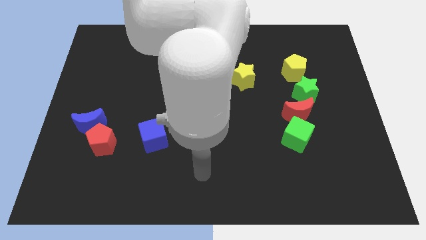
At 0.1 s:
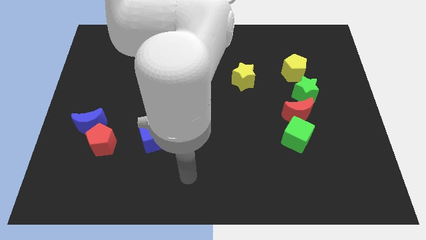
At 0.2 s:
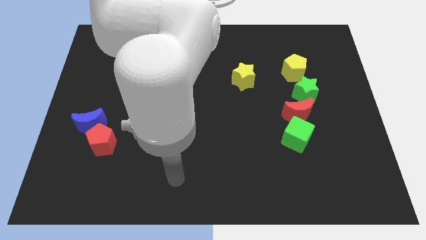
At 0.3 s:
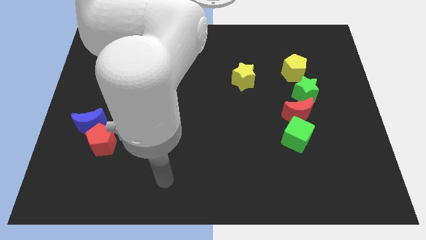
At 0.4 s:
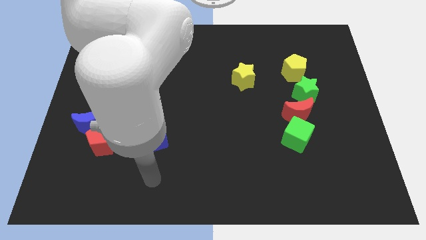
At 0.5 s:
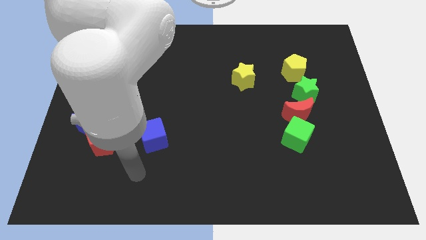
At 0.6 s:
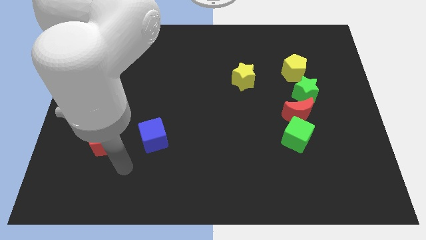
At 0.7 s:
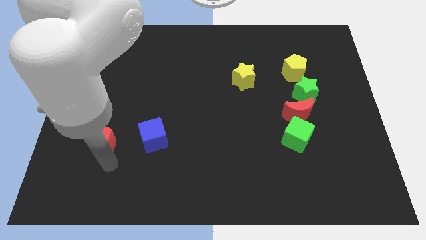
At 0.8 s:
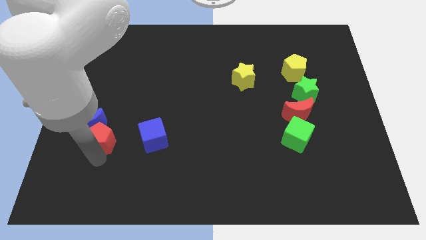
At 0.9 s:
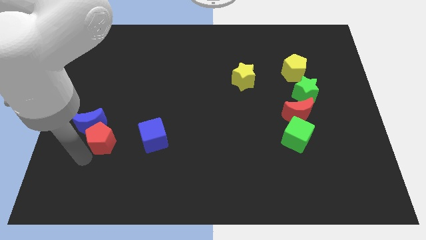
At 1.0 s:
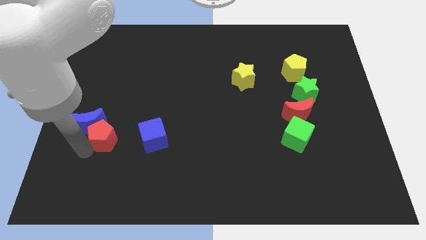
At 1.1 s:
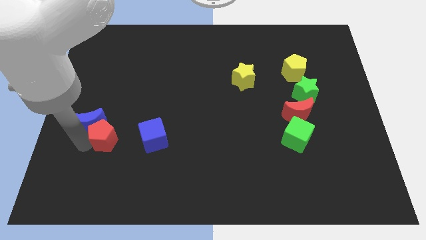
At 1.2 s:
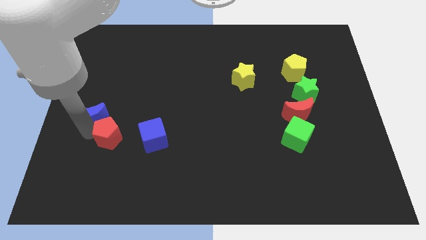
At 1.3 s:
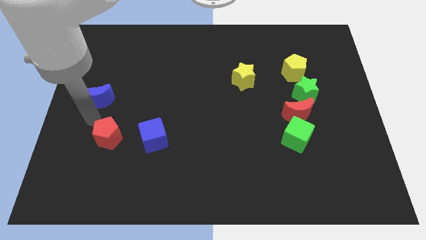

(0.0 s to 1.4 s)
pull the red pentagon apart from the blue moon

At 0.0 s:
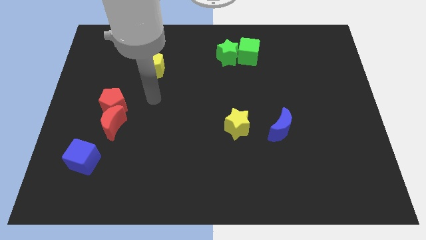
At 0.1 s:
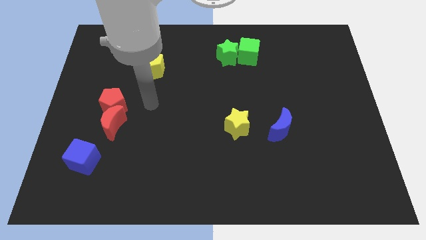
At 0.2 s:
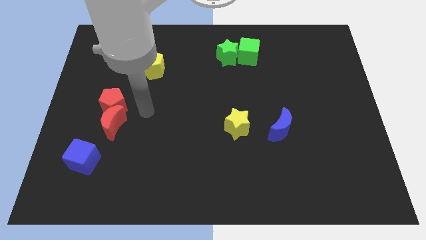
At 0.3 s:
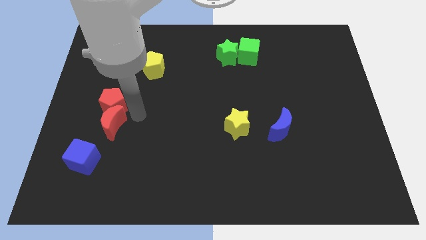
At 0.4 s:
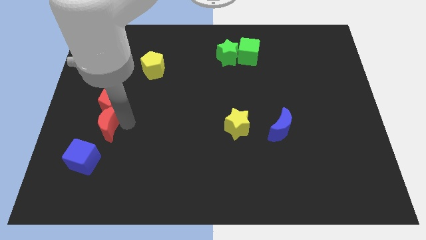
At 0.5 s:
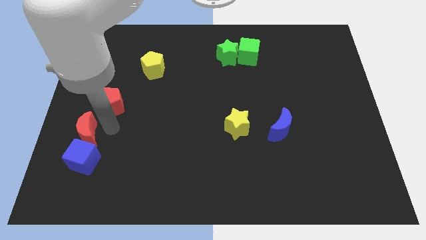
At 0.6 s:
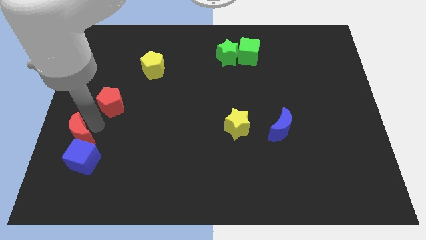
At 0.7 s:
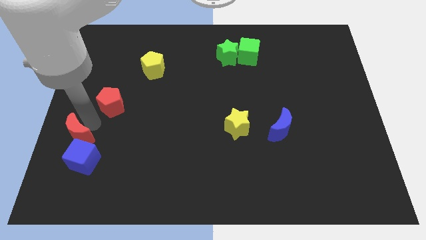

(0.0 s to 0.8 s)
move the red pentagon away from the red moon

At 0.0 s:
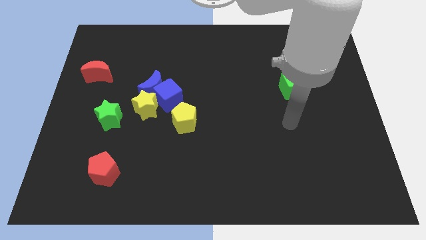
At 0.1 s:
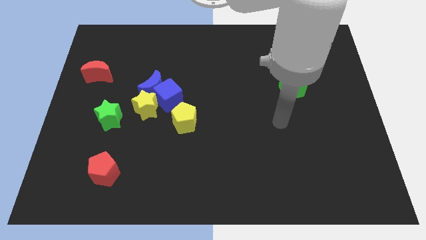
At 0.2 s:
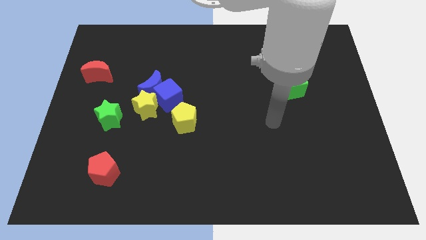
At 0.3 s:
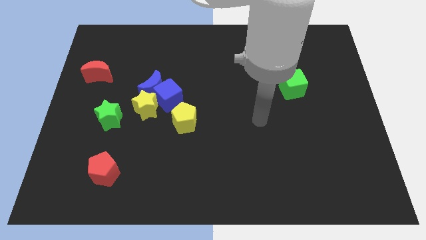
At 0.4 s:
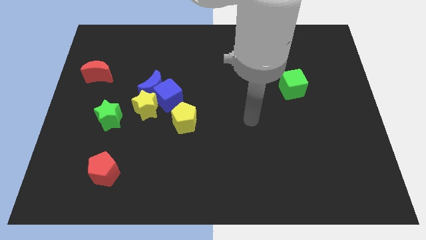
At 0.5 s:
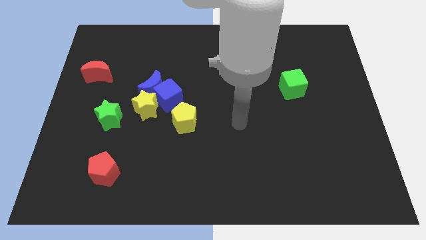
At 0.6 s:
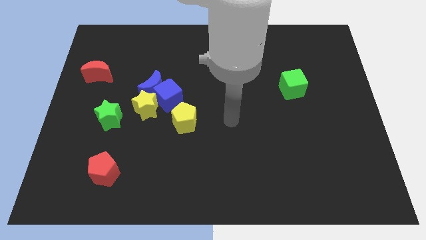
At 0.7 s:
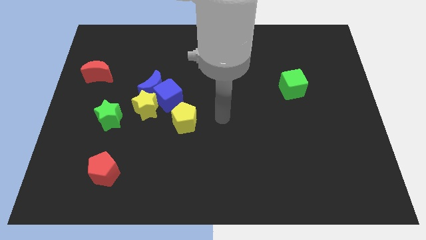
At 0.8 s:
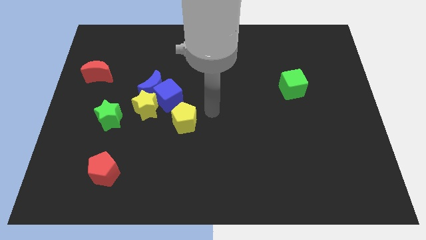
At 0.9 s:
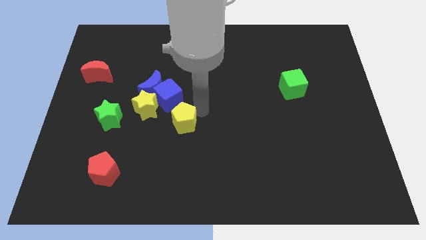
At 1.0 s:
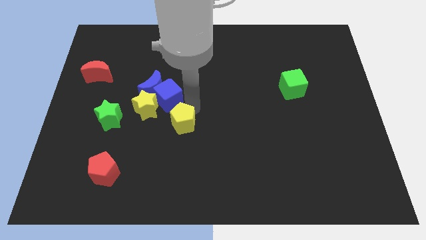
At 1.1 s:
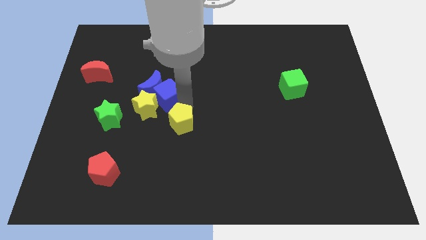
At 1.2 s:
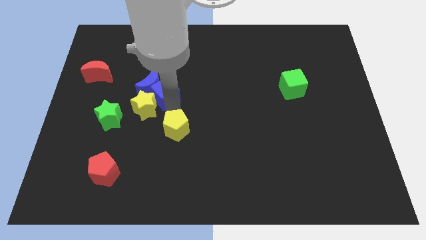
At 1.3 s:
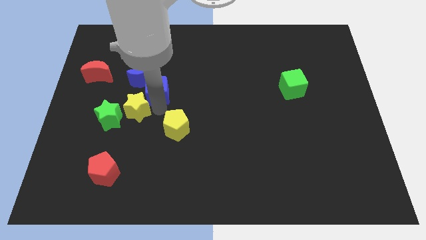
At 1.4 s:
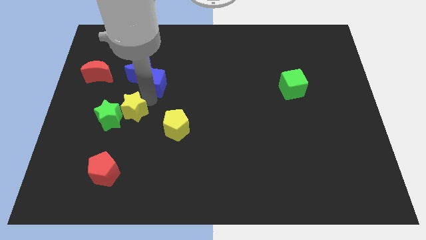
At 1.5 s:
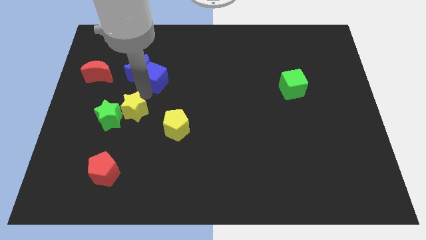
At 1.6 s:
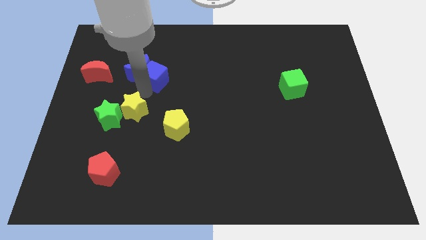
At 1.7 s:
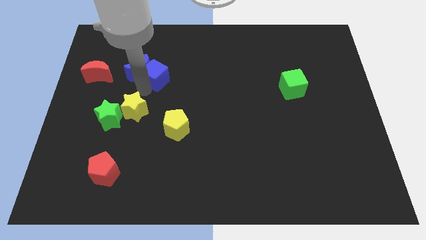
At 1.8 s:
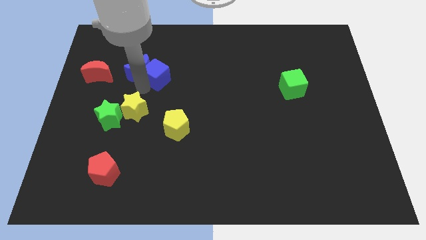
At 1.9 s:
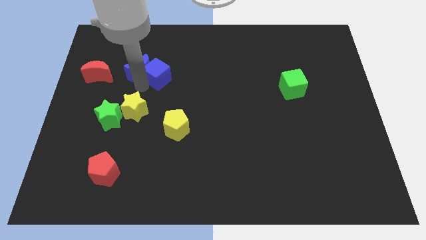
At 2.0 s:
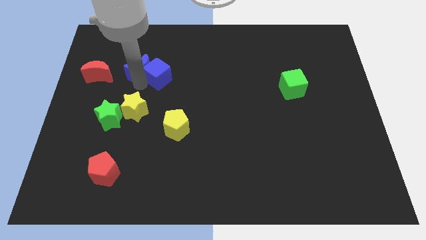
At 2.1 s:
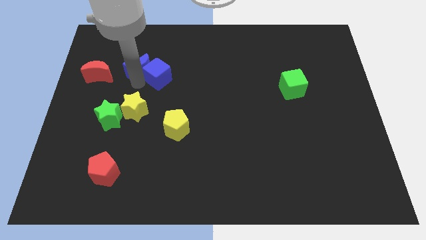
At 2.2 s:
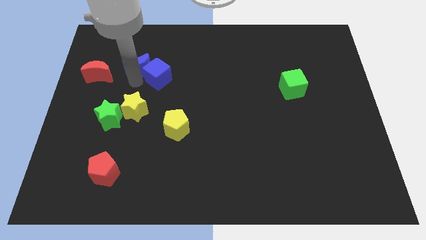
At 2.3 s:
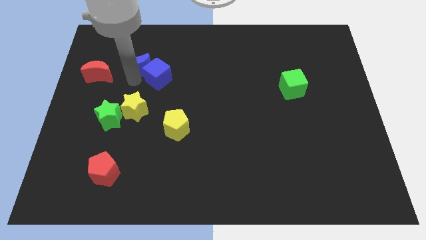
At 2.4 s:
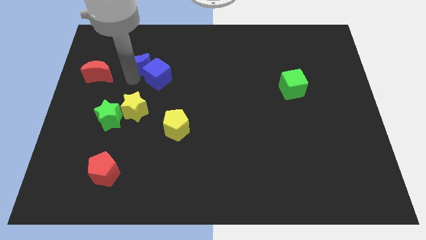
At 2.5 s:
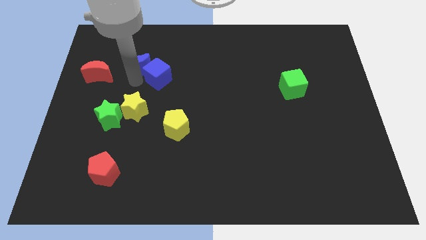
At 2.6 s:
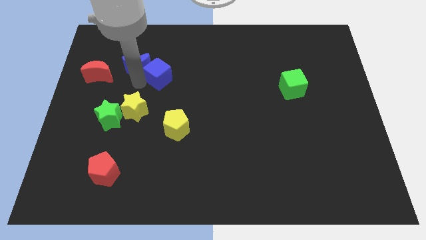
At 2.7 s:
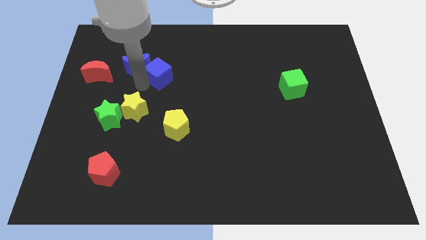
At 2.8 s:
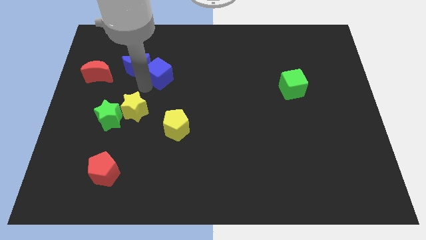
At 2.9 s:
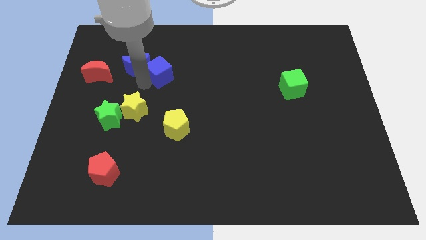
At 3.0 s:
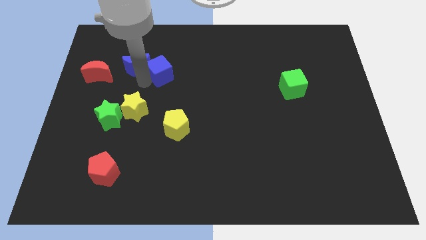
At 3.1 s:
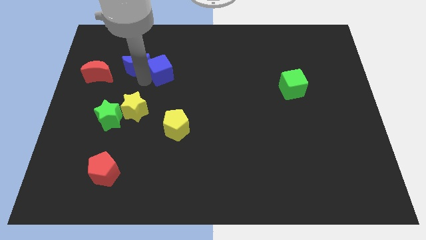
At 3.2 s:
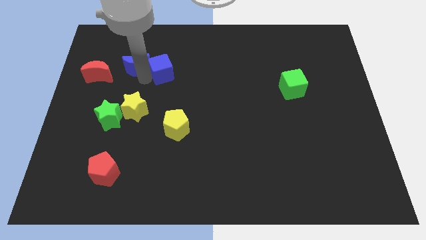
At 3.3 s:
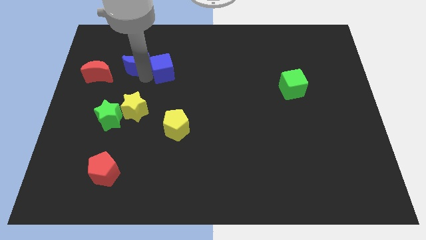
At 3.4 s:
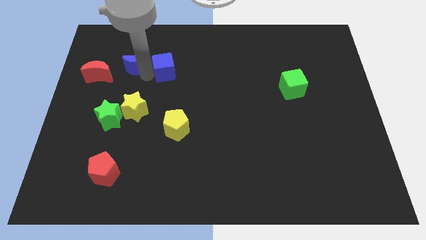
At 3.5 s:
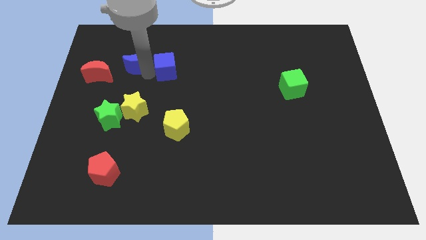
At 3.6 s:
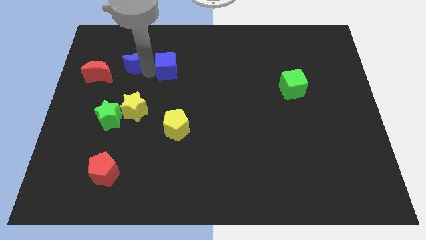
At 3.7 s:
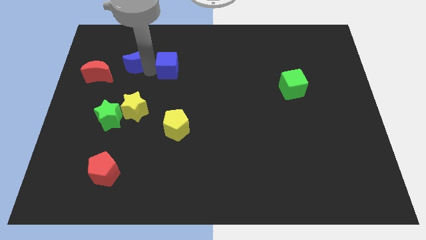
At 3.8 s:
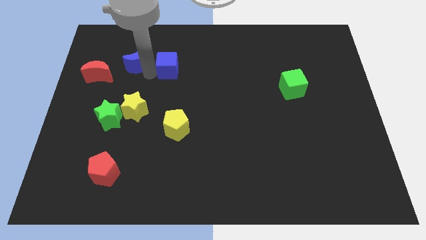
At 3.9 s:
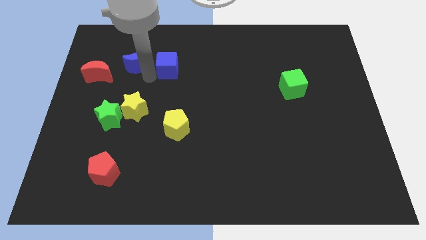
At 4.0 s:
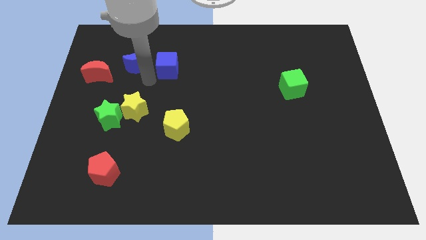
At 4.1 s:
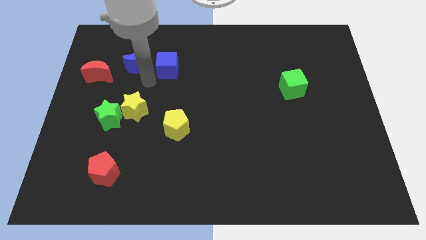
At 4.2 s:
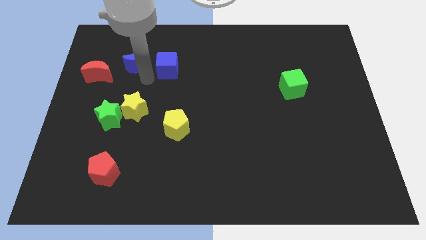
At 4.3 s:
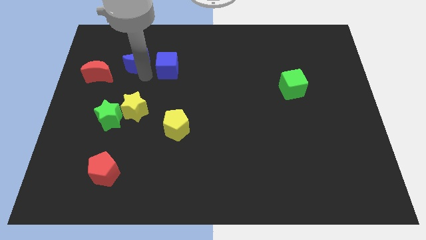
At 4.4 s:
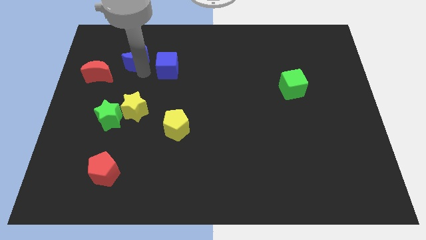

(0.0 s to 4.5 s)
separate the blue moon from the blue cube and yellow star

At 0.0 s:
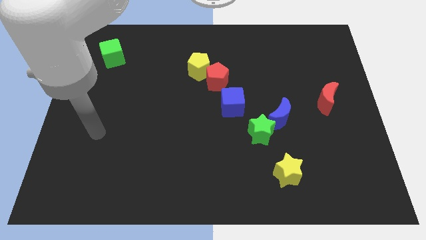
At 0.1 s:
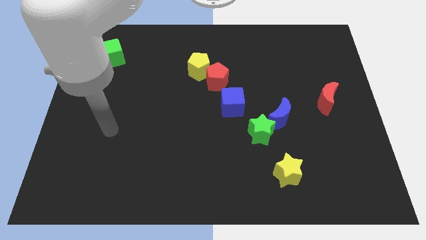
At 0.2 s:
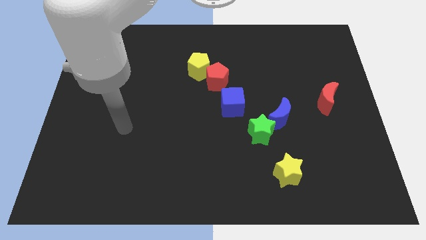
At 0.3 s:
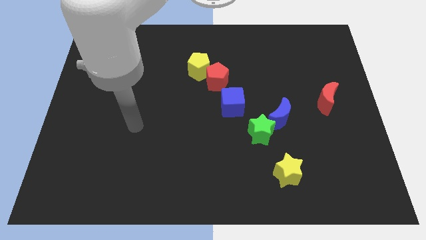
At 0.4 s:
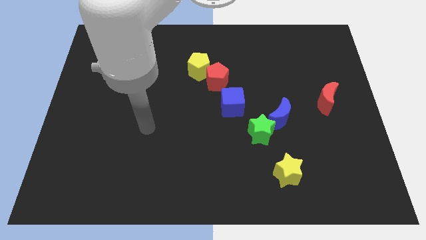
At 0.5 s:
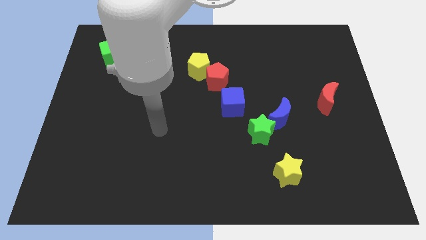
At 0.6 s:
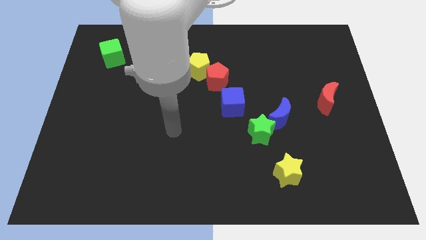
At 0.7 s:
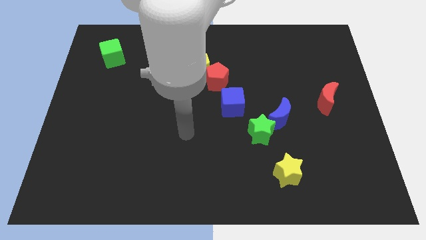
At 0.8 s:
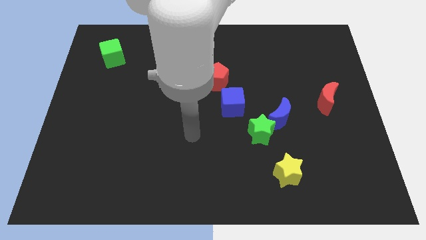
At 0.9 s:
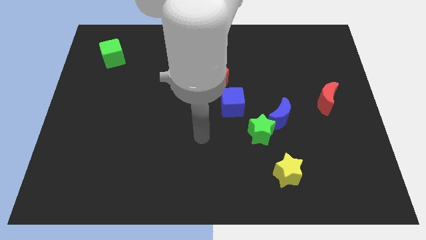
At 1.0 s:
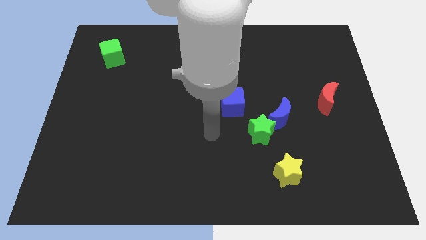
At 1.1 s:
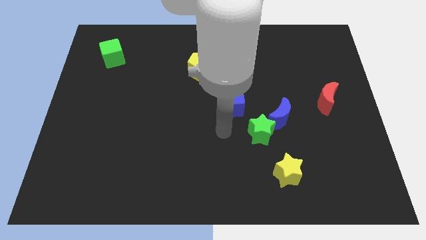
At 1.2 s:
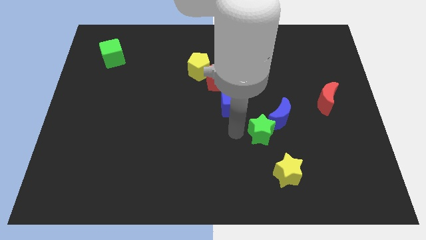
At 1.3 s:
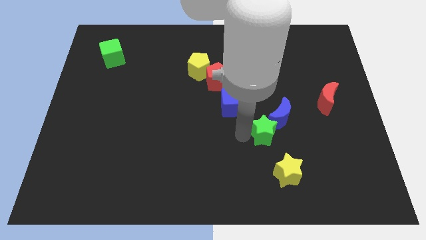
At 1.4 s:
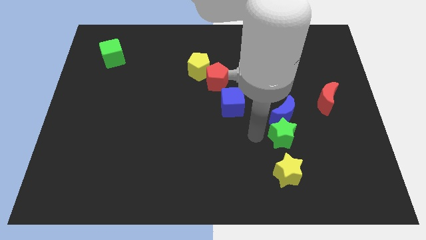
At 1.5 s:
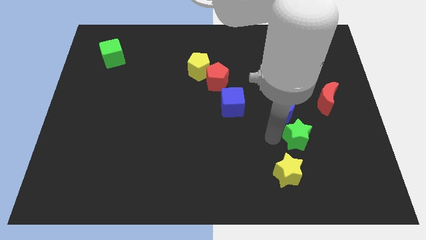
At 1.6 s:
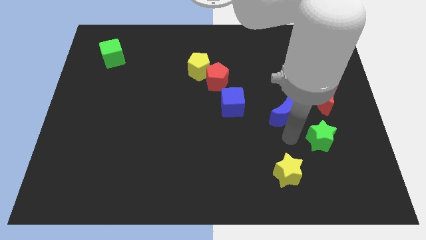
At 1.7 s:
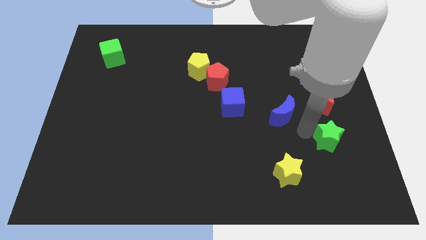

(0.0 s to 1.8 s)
move the blue moon away from the green star

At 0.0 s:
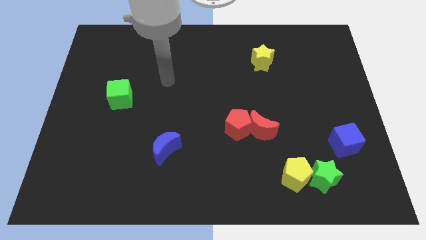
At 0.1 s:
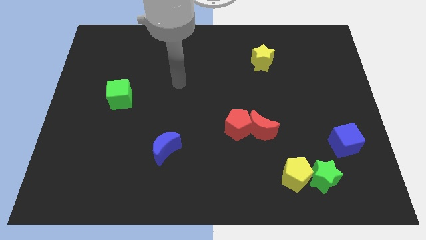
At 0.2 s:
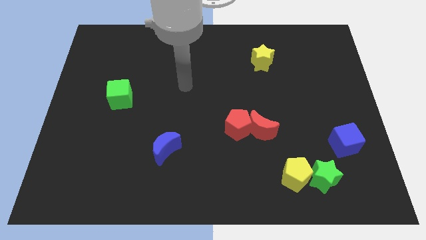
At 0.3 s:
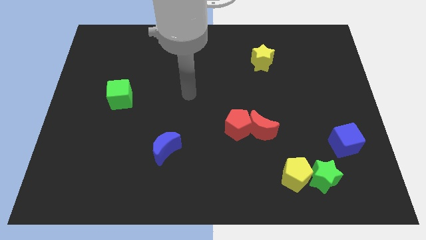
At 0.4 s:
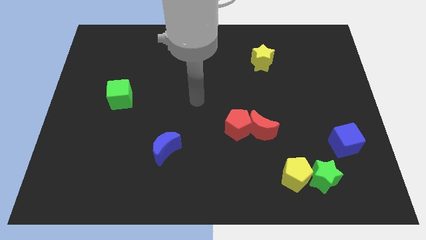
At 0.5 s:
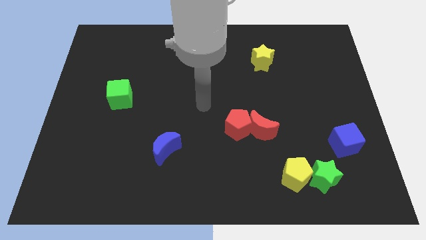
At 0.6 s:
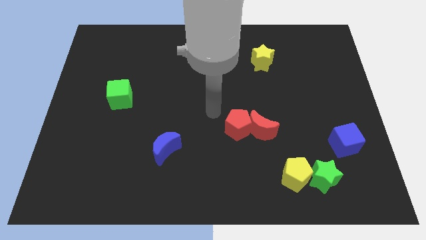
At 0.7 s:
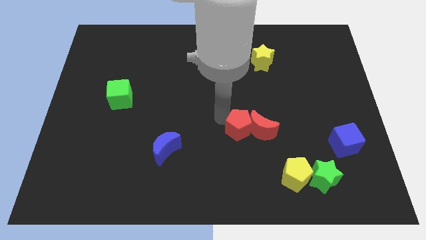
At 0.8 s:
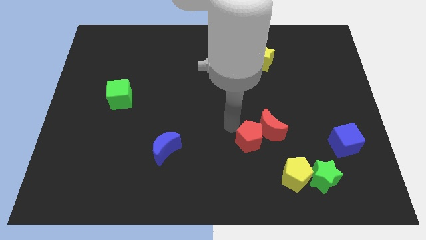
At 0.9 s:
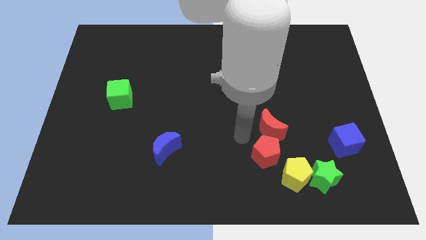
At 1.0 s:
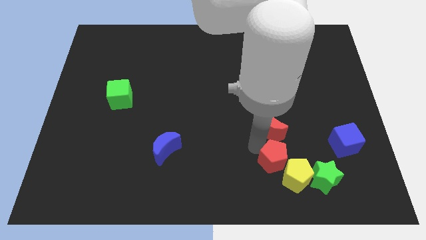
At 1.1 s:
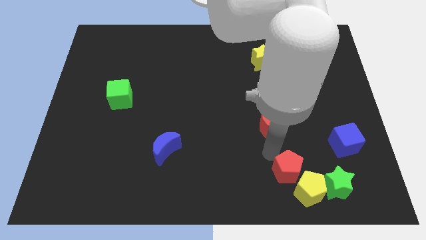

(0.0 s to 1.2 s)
separate the red moon from the red pentagon
